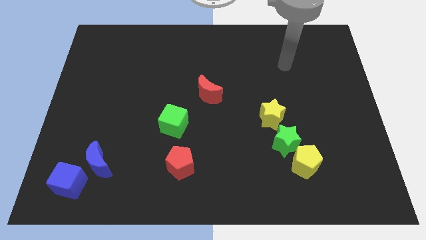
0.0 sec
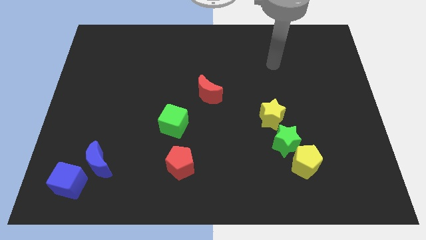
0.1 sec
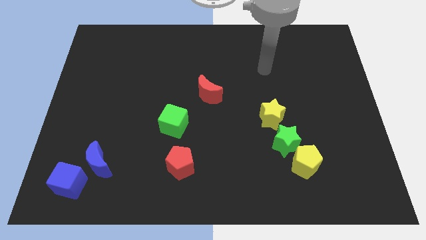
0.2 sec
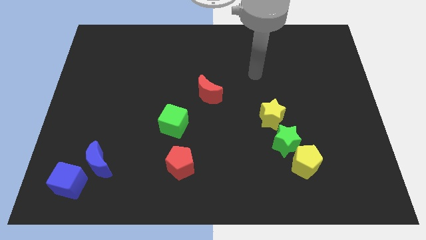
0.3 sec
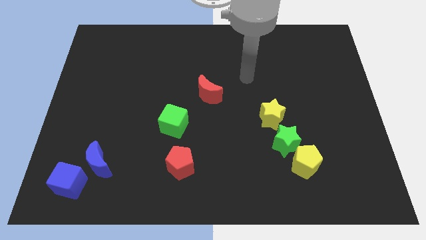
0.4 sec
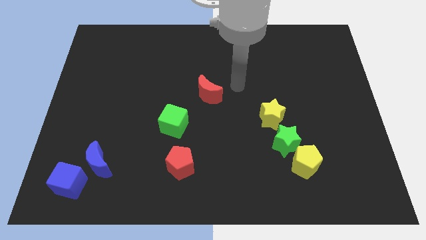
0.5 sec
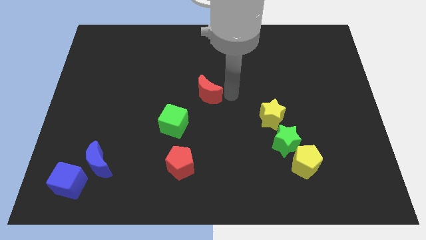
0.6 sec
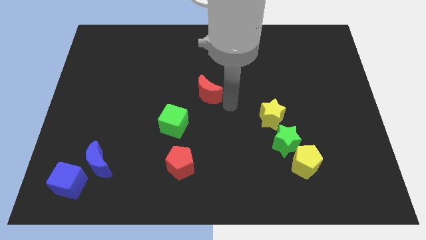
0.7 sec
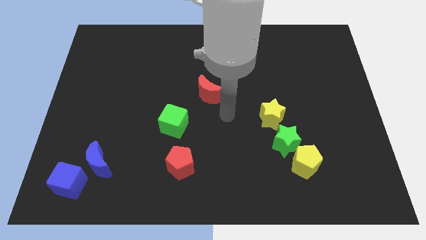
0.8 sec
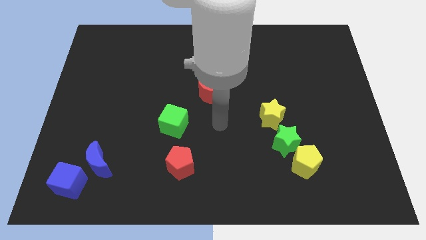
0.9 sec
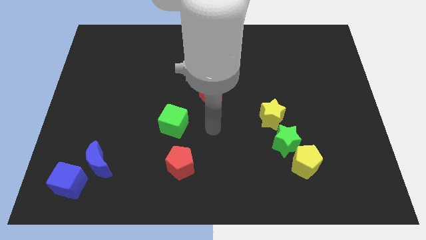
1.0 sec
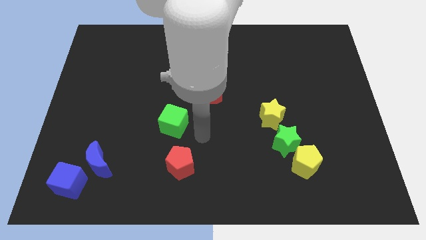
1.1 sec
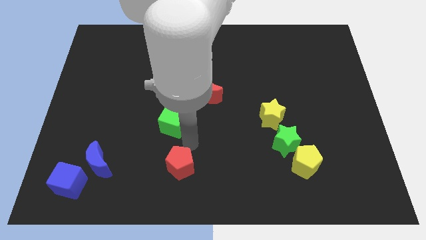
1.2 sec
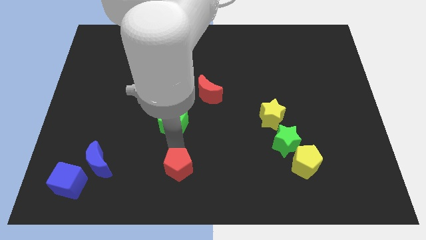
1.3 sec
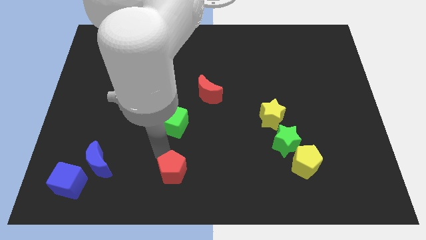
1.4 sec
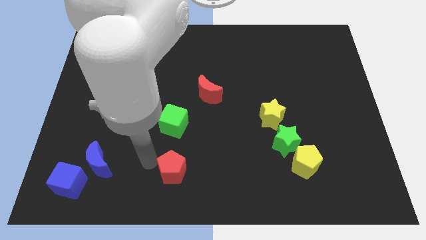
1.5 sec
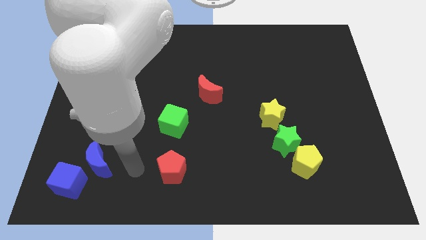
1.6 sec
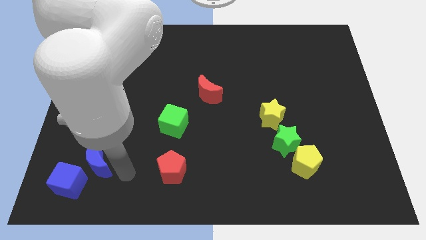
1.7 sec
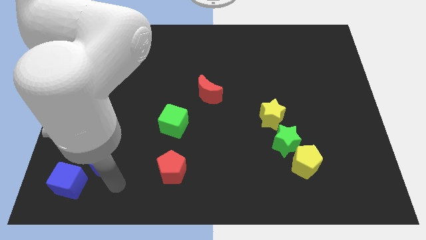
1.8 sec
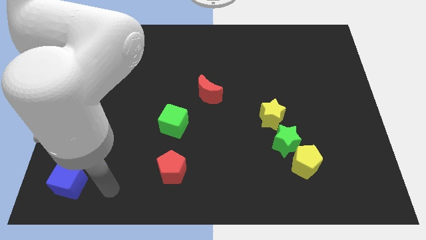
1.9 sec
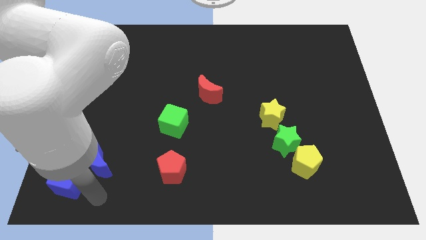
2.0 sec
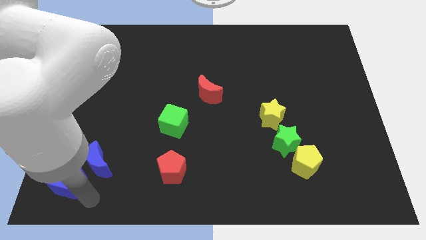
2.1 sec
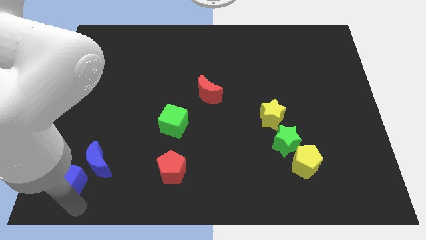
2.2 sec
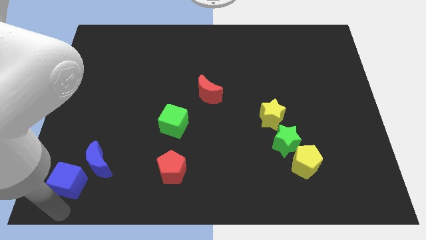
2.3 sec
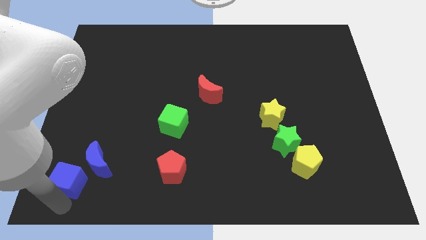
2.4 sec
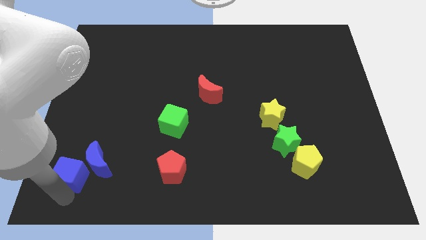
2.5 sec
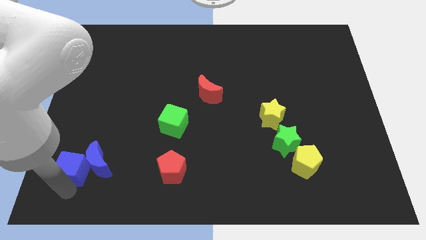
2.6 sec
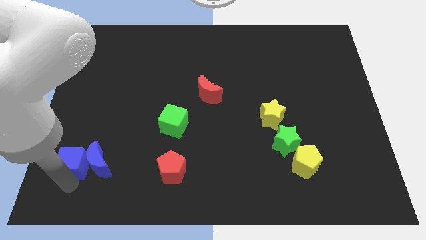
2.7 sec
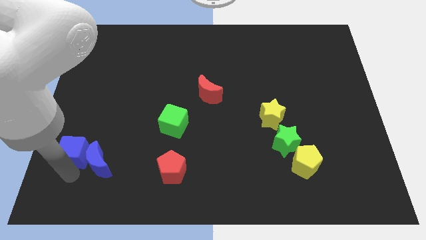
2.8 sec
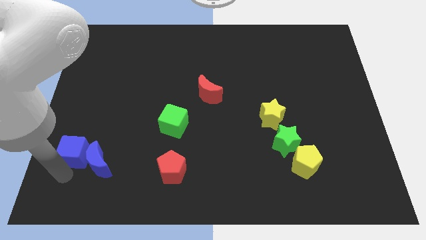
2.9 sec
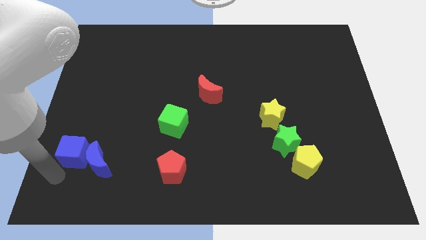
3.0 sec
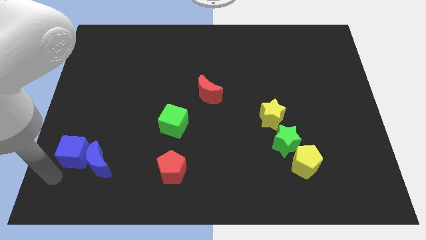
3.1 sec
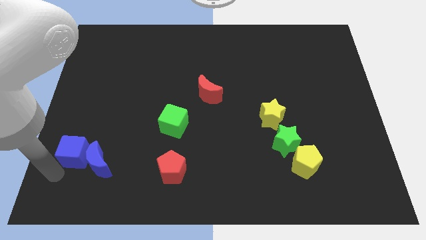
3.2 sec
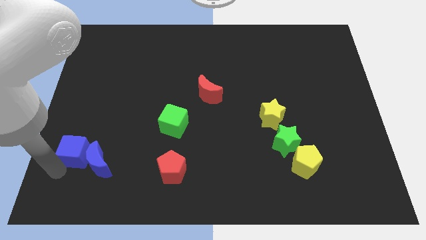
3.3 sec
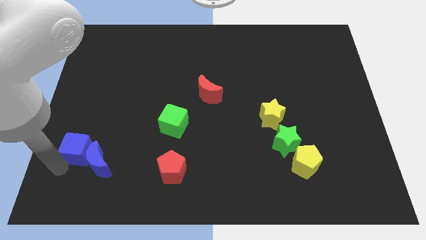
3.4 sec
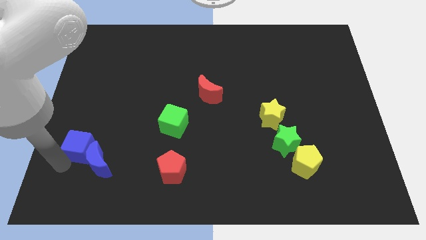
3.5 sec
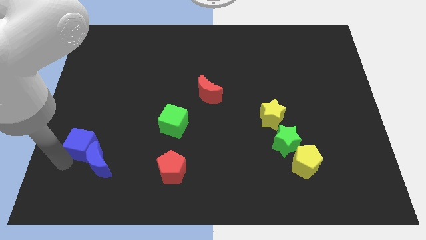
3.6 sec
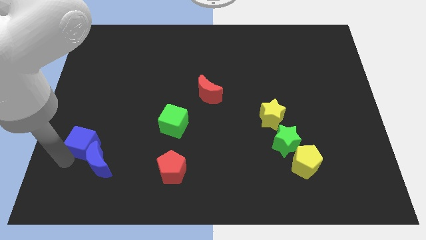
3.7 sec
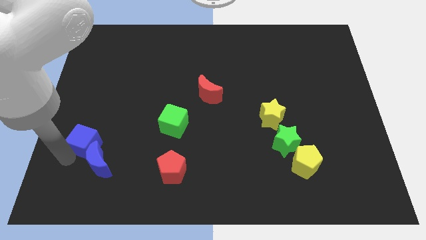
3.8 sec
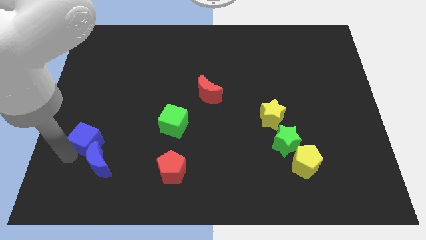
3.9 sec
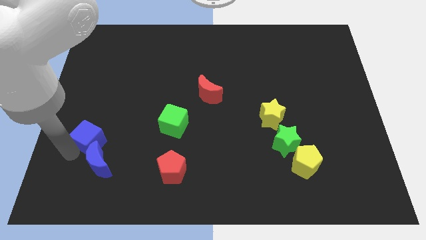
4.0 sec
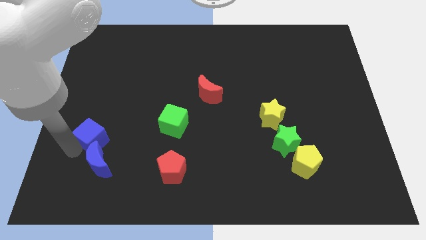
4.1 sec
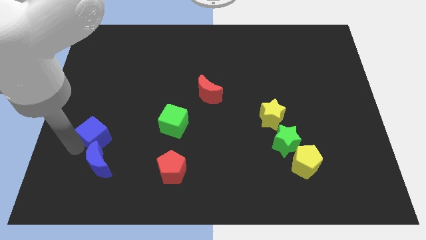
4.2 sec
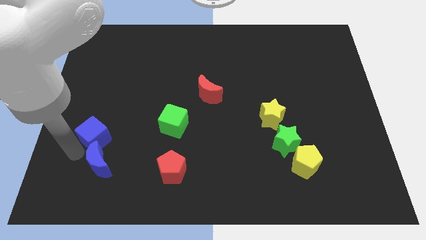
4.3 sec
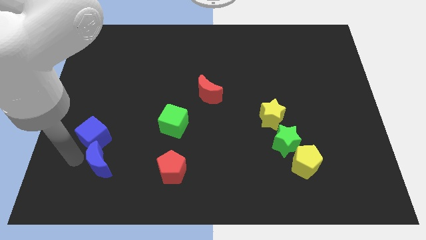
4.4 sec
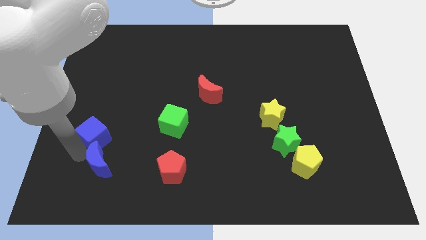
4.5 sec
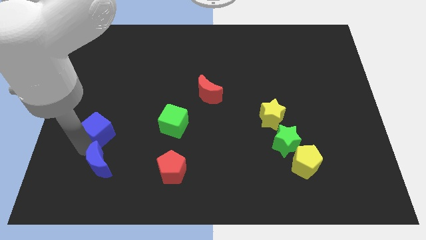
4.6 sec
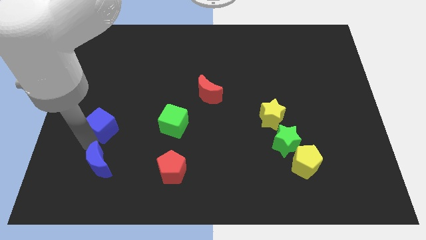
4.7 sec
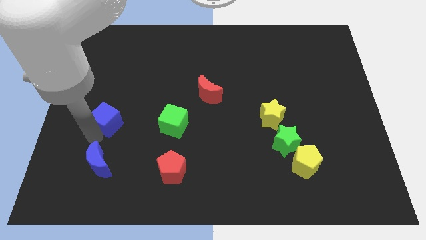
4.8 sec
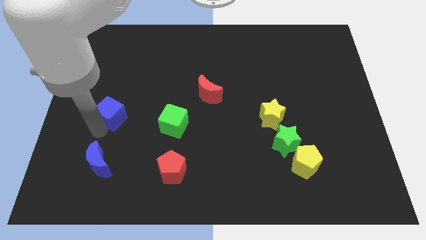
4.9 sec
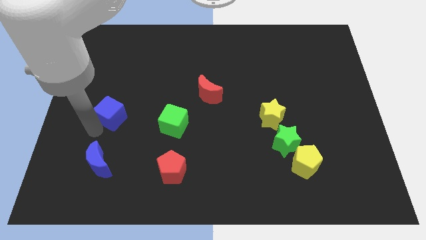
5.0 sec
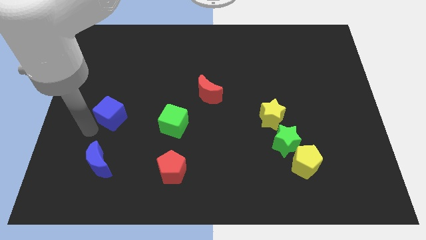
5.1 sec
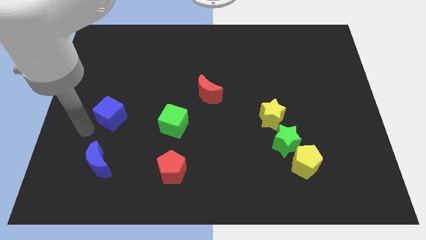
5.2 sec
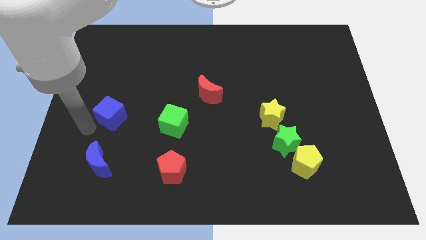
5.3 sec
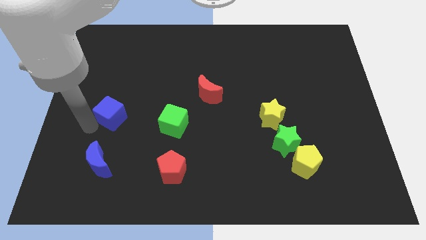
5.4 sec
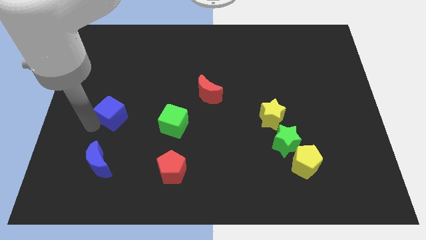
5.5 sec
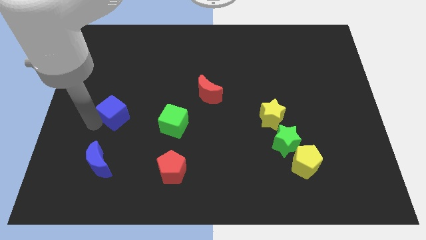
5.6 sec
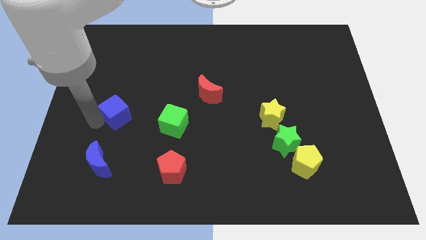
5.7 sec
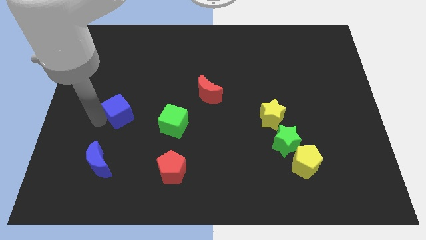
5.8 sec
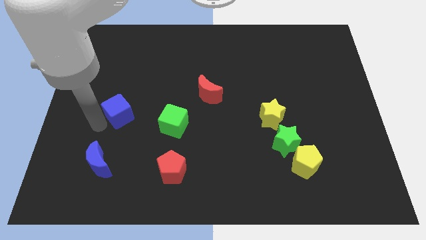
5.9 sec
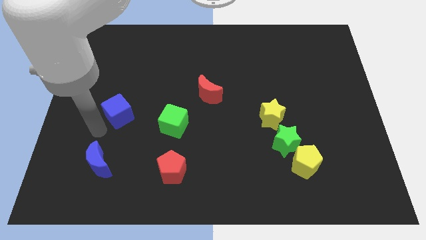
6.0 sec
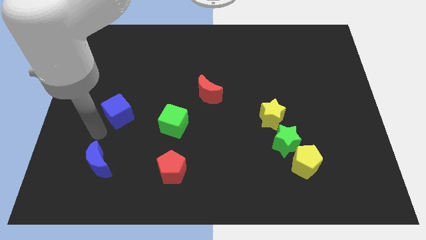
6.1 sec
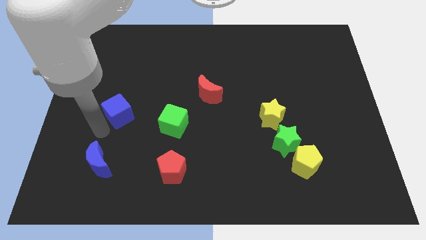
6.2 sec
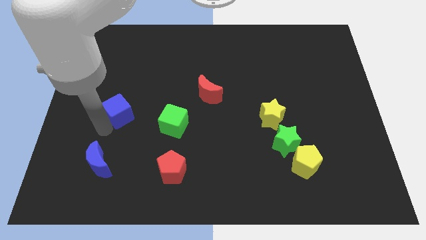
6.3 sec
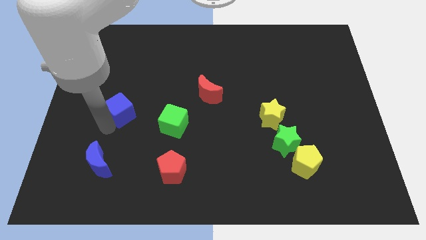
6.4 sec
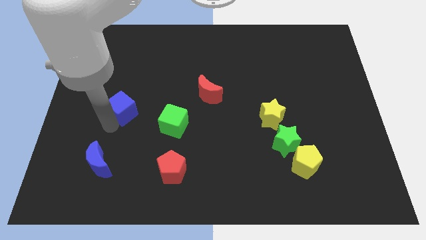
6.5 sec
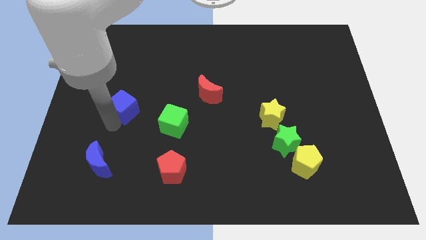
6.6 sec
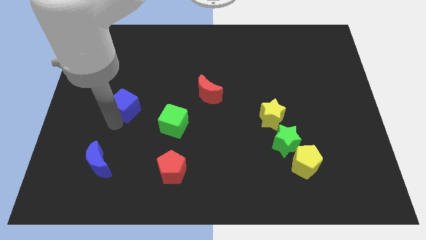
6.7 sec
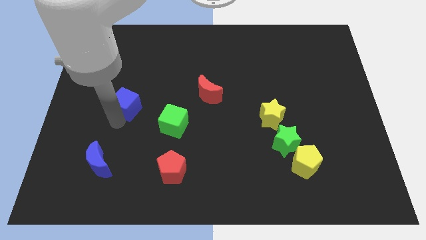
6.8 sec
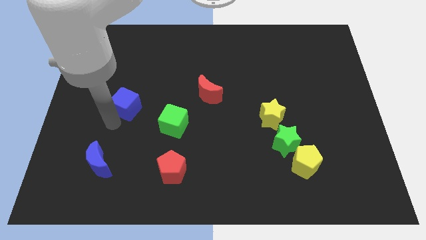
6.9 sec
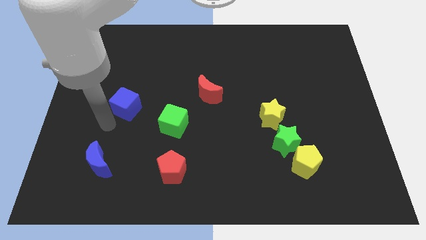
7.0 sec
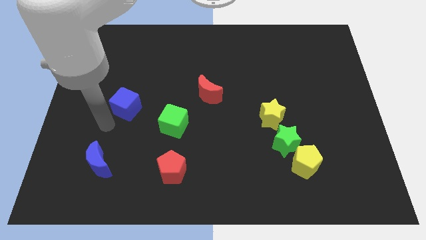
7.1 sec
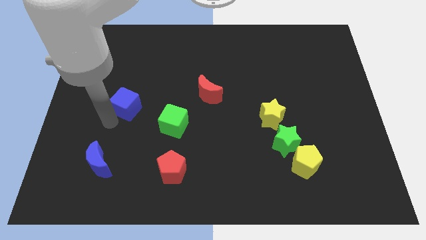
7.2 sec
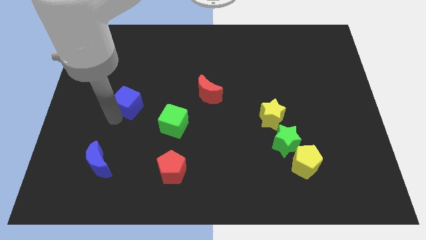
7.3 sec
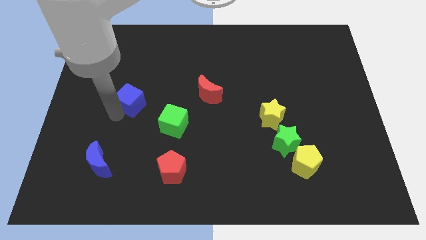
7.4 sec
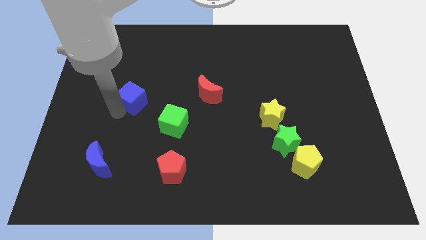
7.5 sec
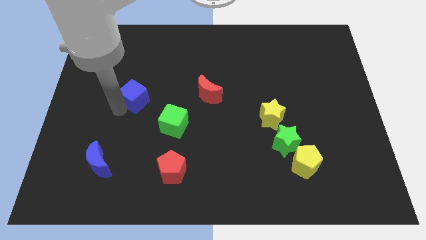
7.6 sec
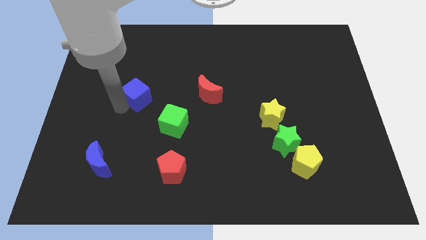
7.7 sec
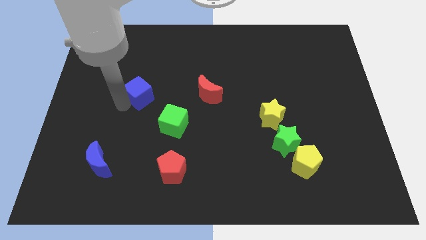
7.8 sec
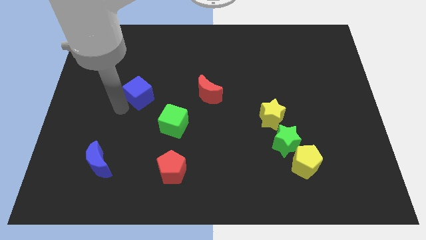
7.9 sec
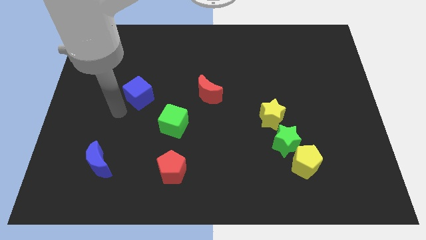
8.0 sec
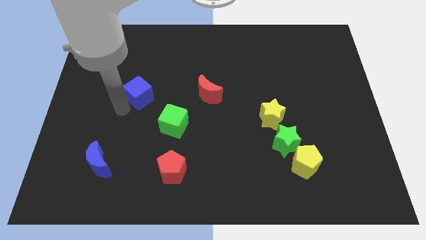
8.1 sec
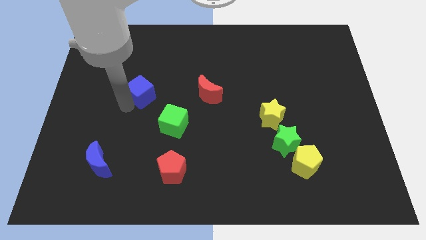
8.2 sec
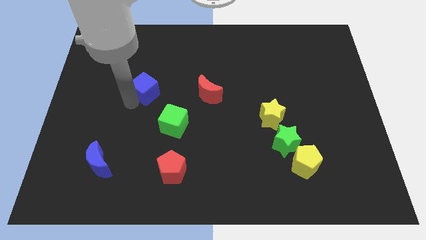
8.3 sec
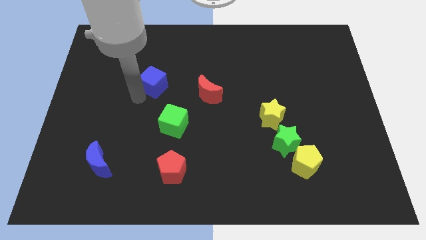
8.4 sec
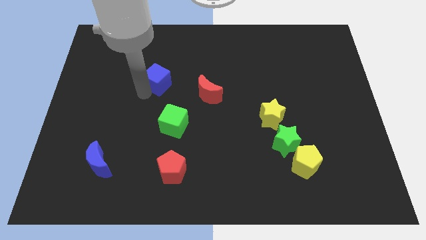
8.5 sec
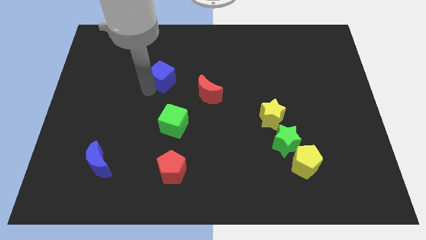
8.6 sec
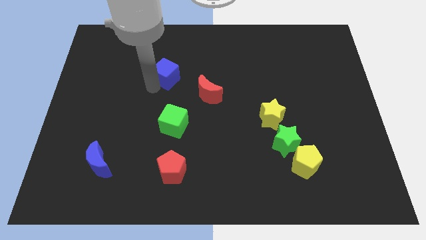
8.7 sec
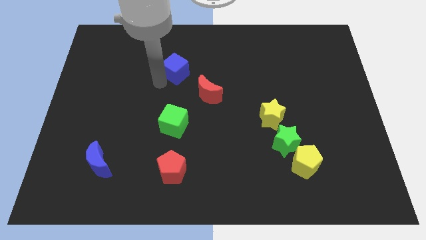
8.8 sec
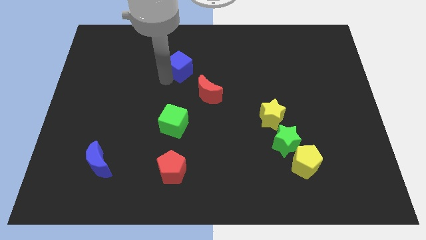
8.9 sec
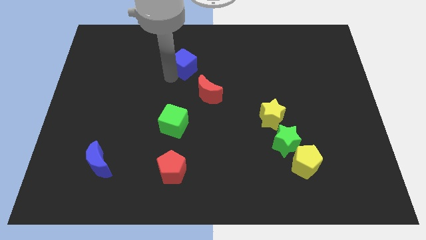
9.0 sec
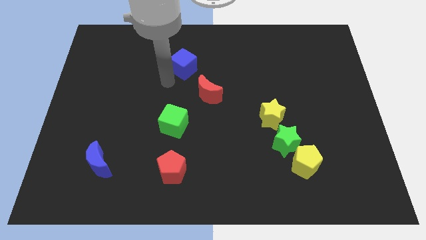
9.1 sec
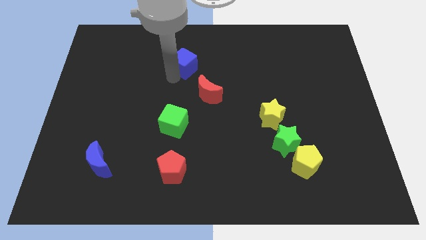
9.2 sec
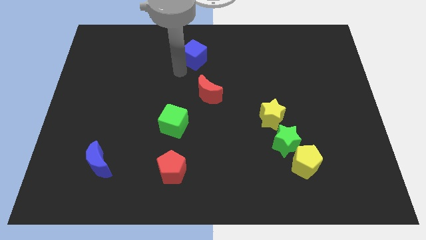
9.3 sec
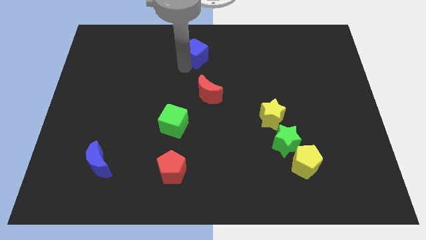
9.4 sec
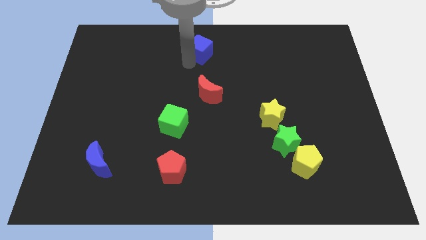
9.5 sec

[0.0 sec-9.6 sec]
slide the blue cube to the towards your base
